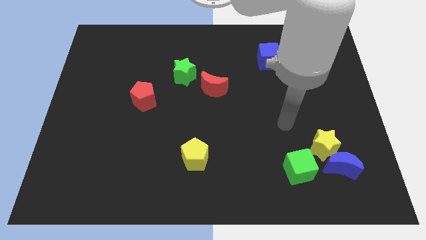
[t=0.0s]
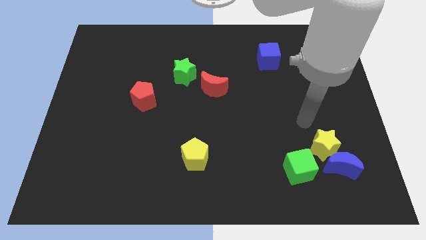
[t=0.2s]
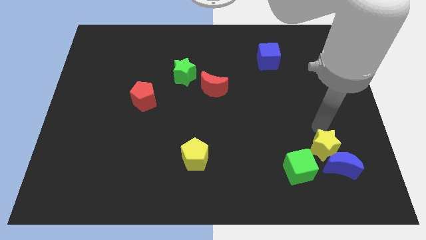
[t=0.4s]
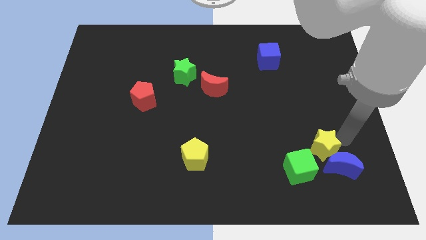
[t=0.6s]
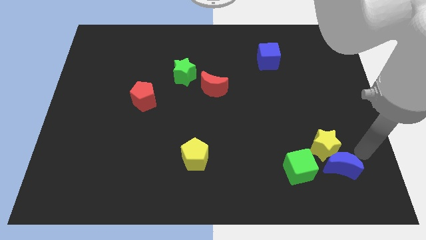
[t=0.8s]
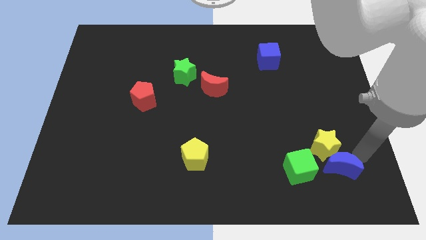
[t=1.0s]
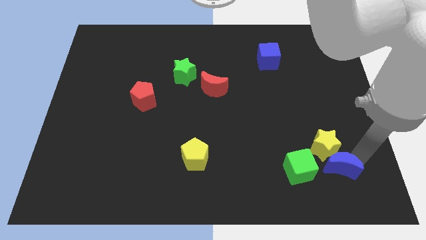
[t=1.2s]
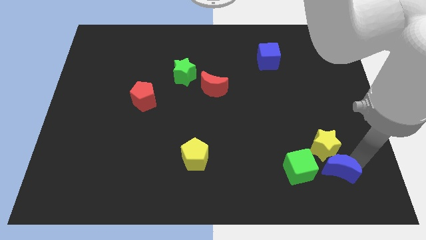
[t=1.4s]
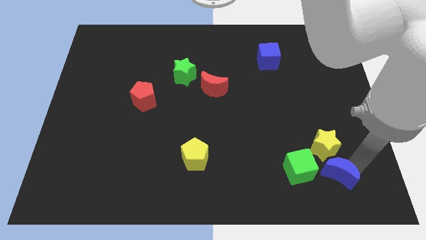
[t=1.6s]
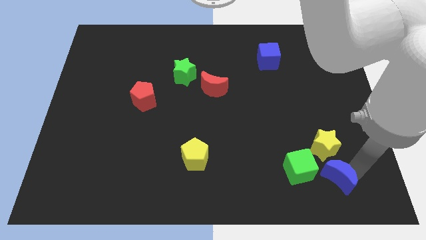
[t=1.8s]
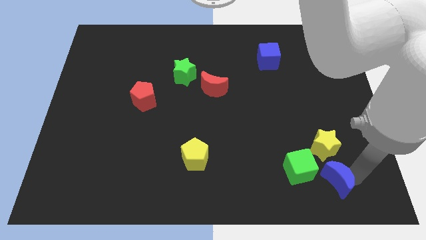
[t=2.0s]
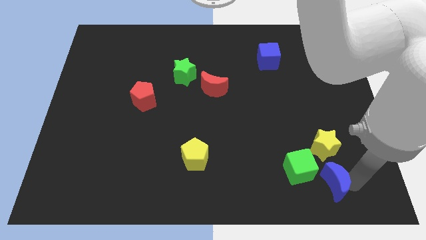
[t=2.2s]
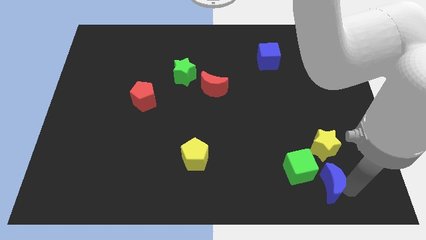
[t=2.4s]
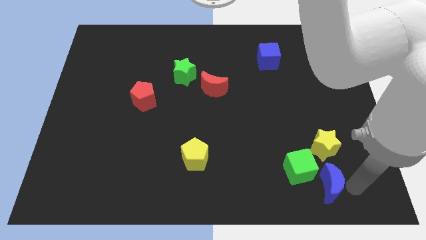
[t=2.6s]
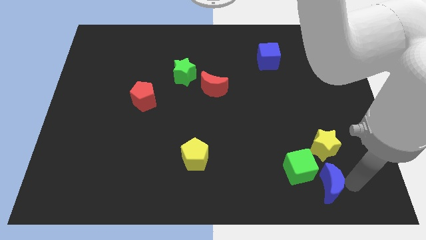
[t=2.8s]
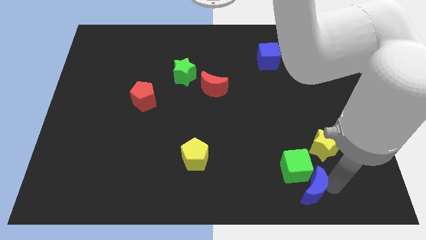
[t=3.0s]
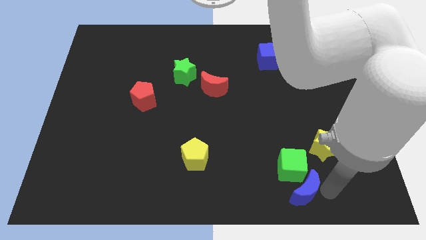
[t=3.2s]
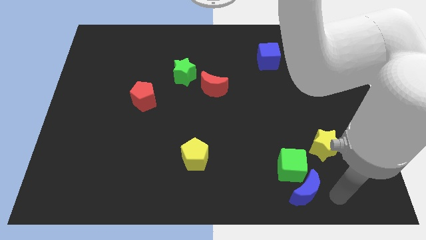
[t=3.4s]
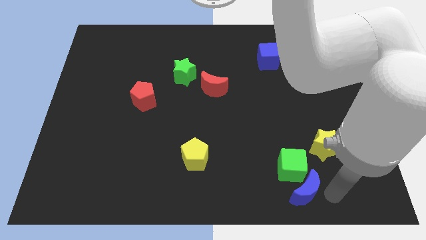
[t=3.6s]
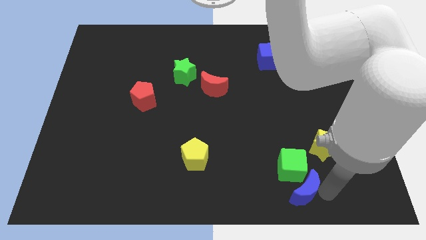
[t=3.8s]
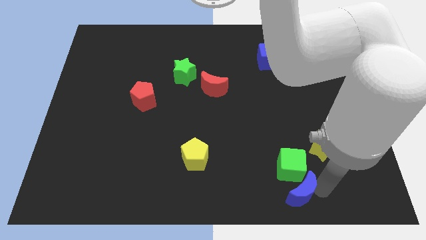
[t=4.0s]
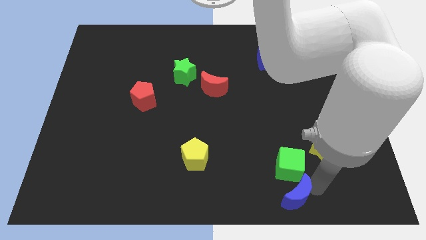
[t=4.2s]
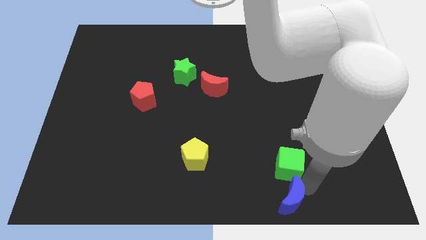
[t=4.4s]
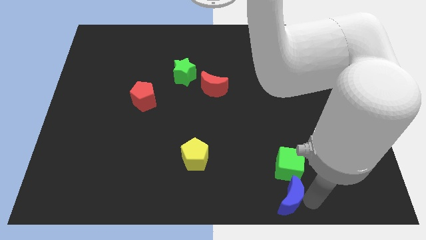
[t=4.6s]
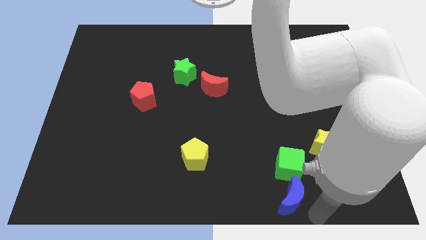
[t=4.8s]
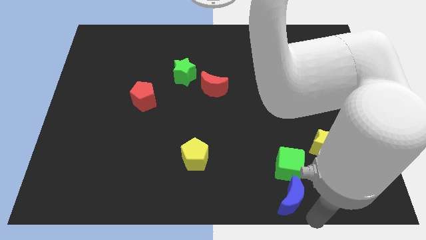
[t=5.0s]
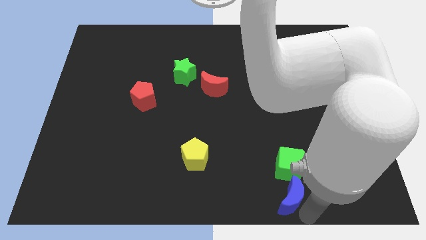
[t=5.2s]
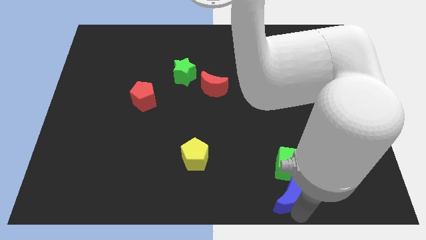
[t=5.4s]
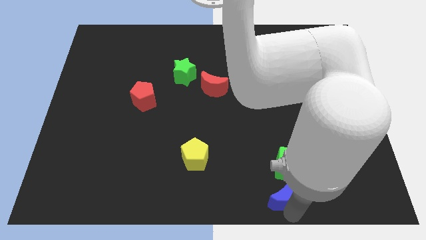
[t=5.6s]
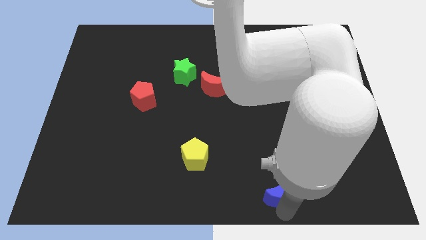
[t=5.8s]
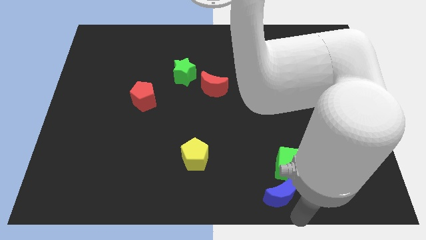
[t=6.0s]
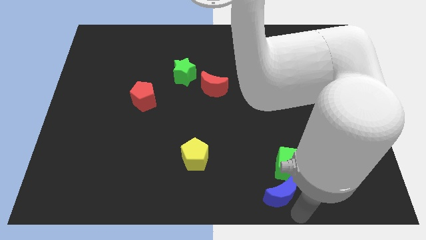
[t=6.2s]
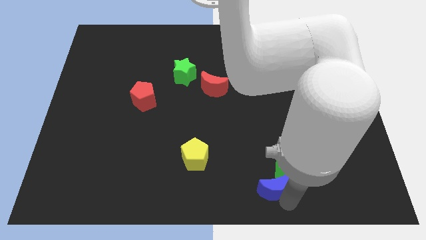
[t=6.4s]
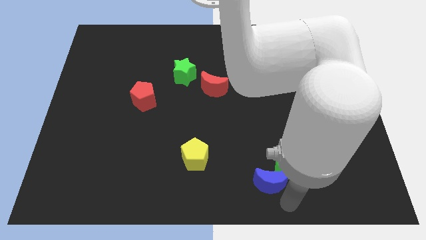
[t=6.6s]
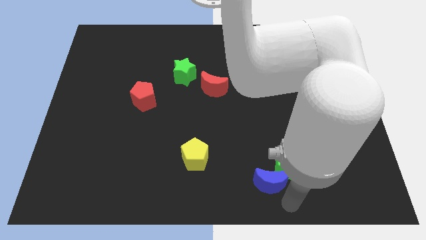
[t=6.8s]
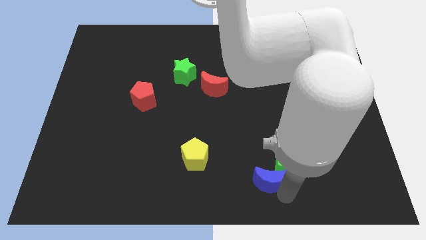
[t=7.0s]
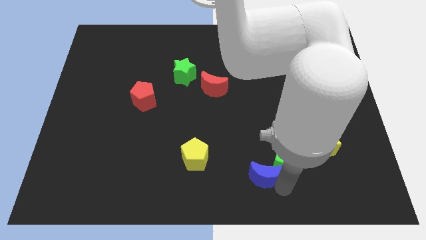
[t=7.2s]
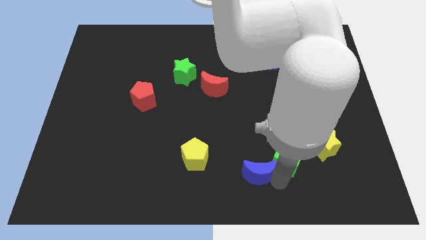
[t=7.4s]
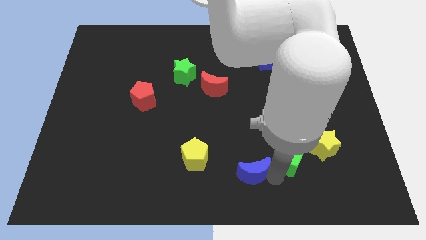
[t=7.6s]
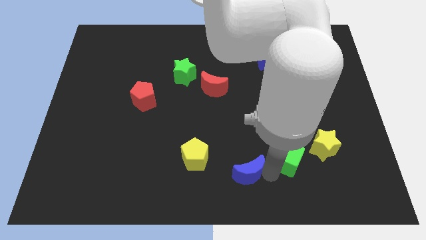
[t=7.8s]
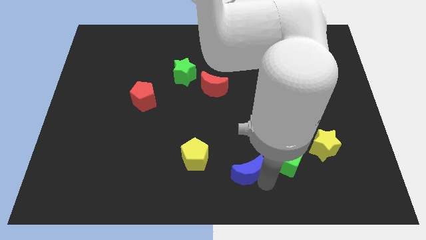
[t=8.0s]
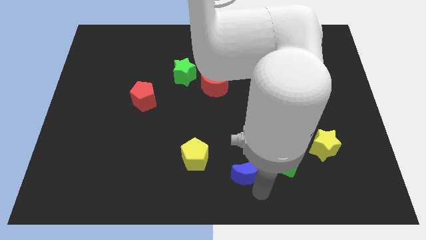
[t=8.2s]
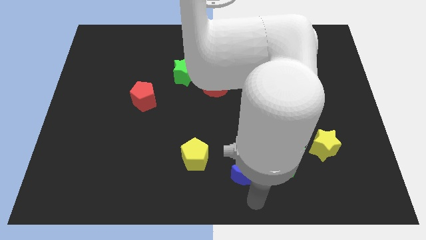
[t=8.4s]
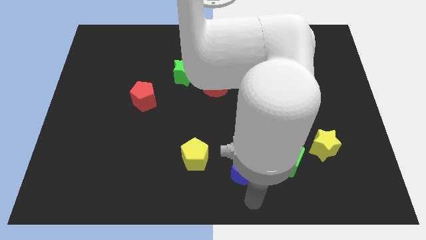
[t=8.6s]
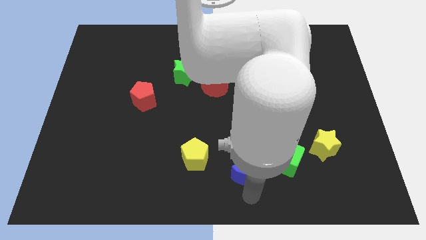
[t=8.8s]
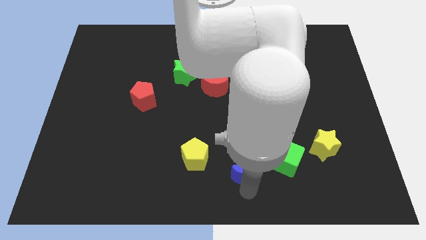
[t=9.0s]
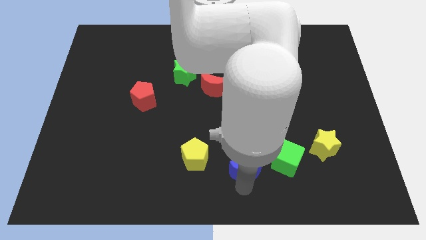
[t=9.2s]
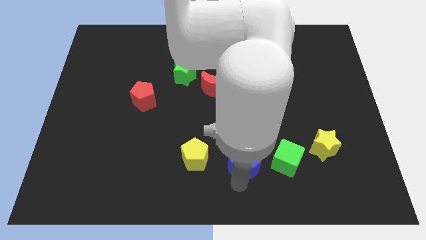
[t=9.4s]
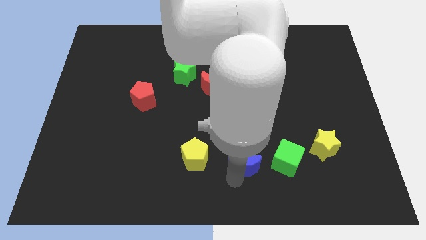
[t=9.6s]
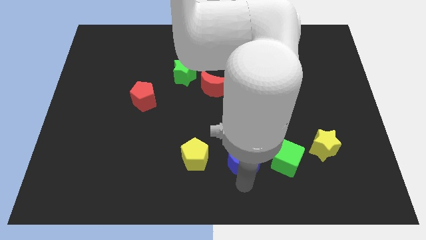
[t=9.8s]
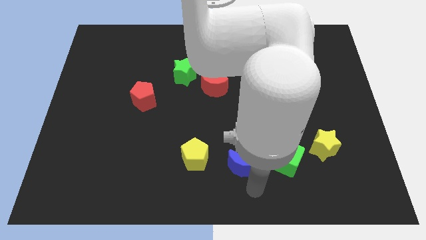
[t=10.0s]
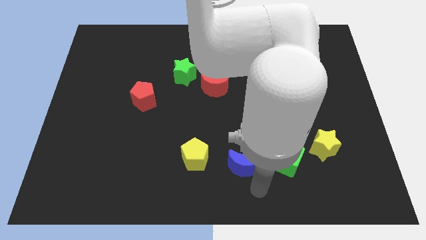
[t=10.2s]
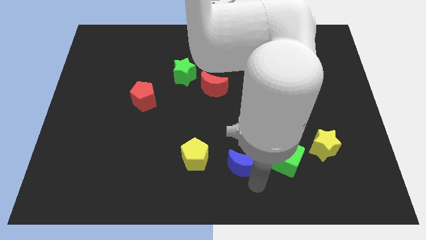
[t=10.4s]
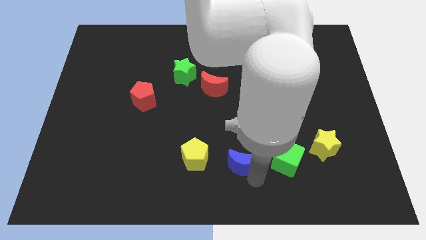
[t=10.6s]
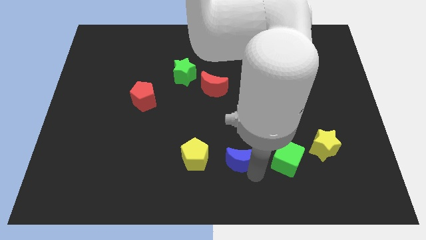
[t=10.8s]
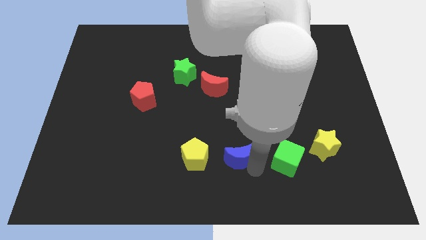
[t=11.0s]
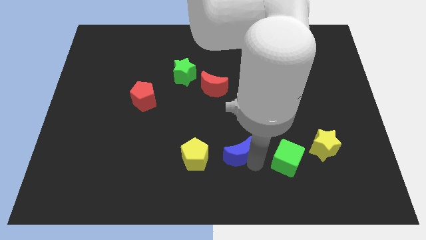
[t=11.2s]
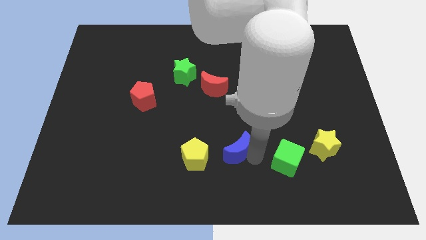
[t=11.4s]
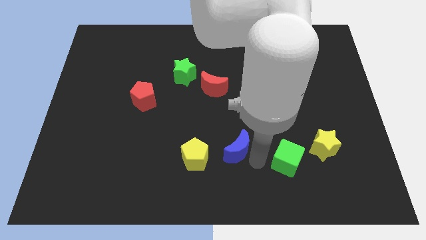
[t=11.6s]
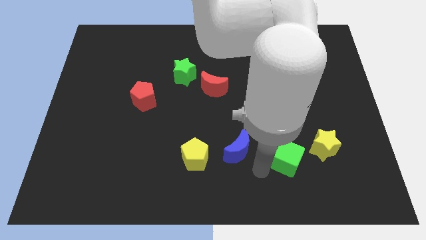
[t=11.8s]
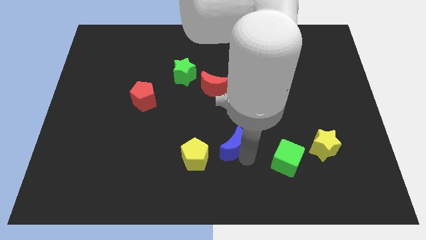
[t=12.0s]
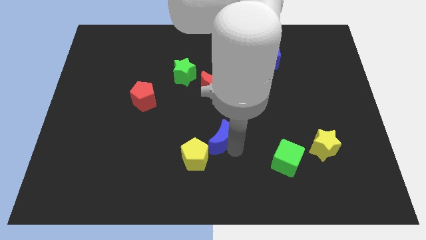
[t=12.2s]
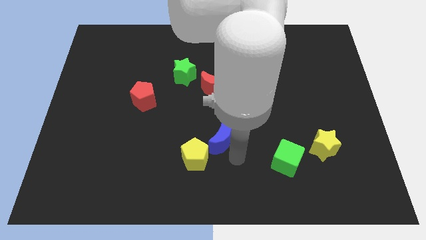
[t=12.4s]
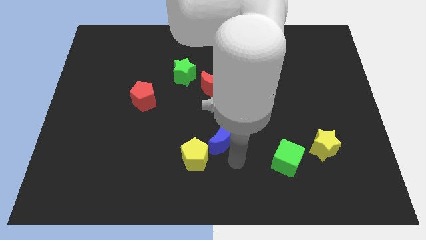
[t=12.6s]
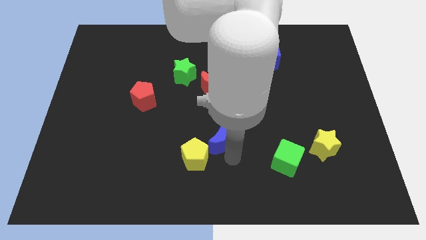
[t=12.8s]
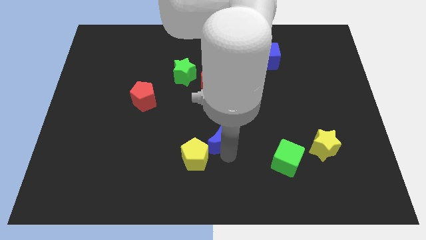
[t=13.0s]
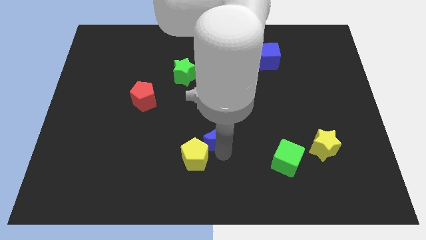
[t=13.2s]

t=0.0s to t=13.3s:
put the blue moon above the yellow pentagon
